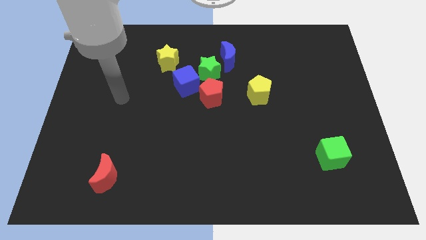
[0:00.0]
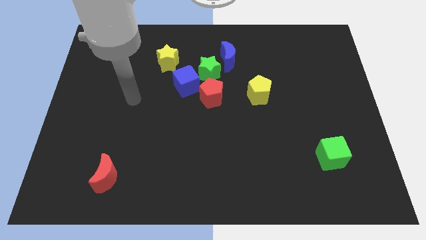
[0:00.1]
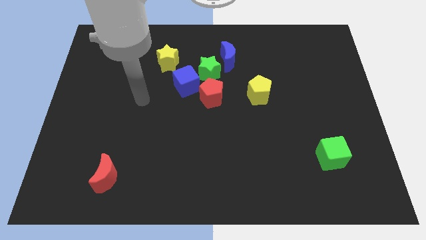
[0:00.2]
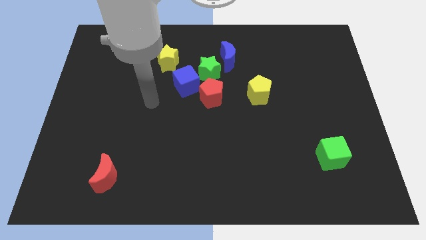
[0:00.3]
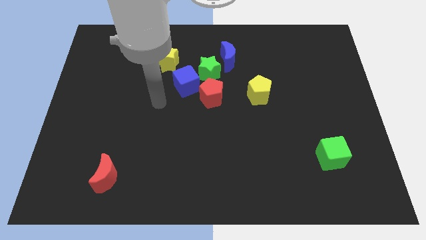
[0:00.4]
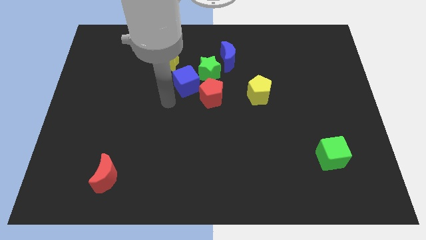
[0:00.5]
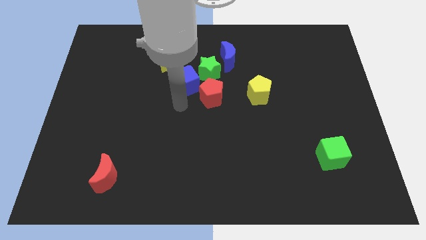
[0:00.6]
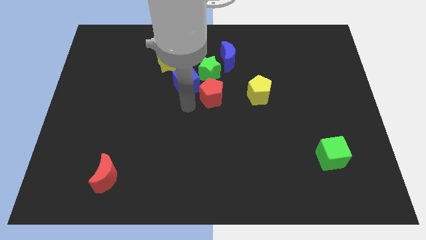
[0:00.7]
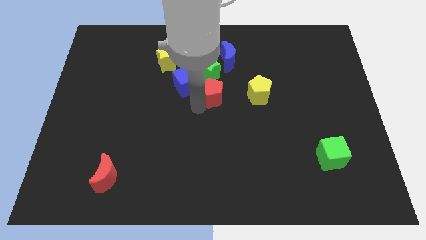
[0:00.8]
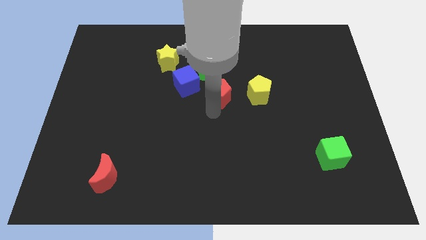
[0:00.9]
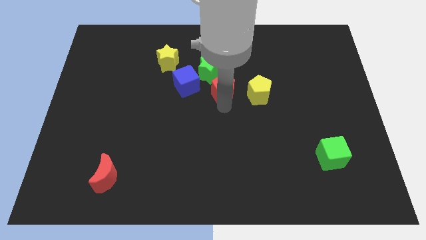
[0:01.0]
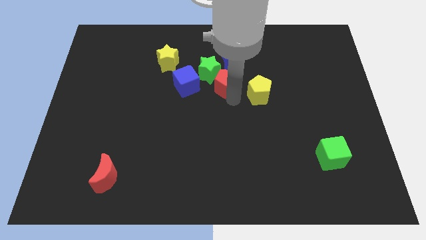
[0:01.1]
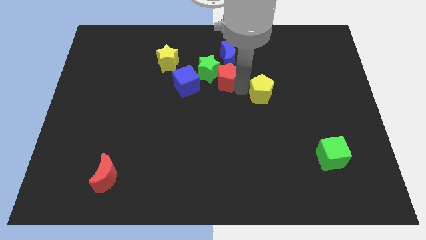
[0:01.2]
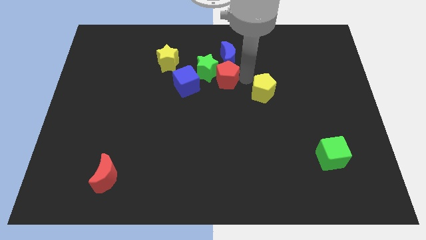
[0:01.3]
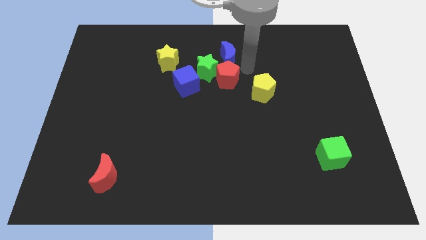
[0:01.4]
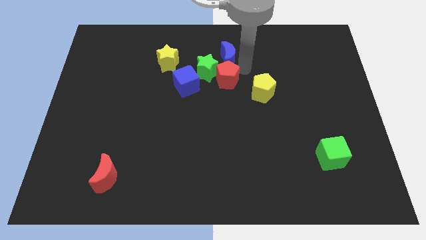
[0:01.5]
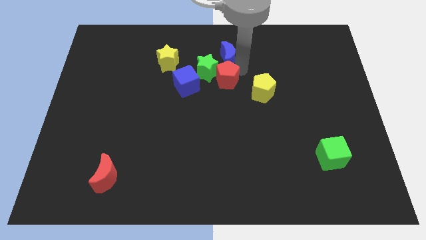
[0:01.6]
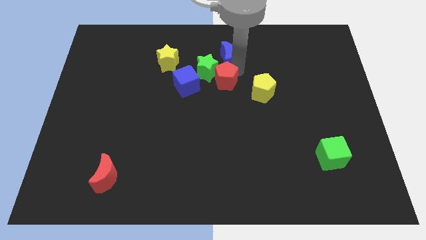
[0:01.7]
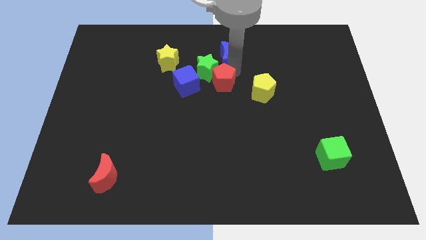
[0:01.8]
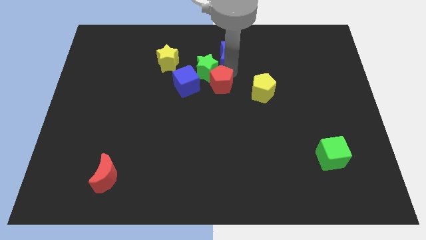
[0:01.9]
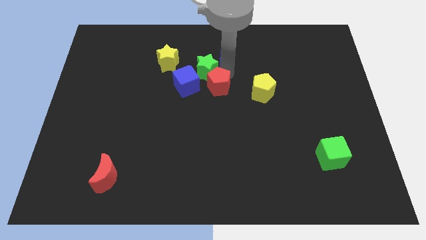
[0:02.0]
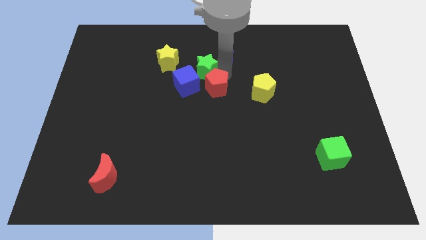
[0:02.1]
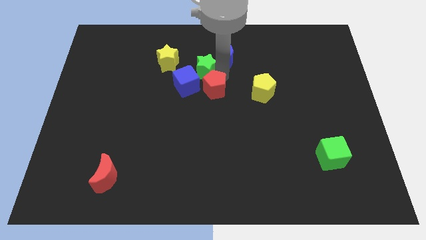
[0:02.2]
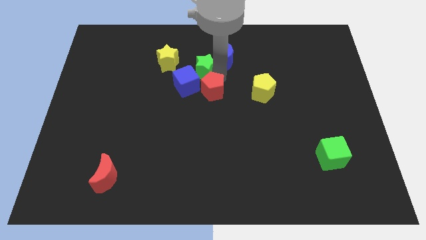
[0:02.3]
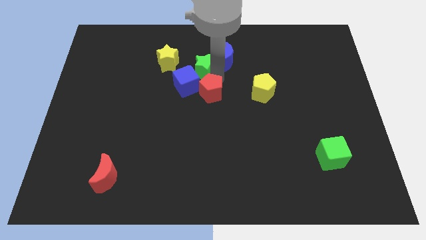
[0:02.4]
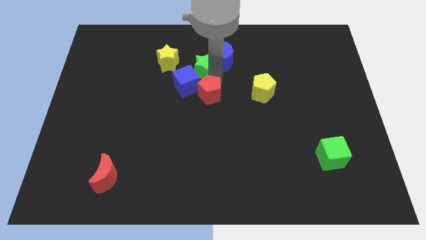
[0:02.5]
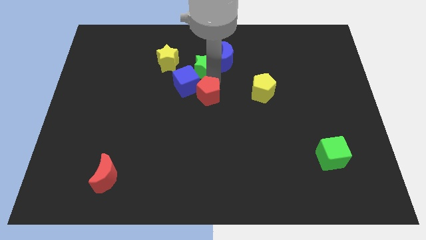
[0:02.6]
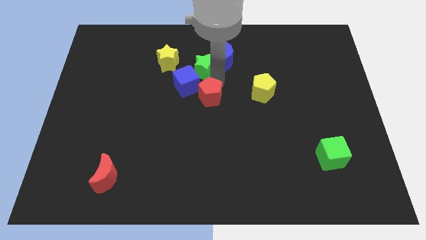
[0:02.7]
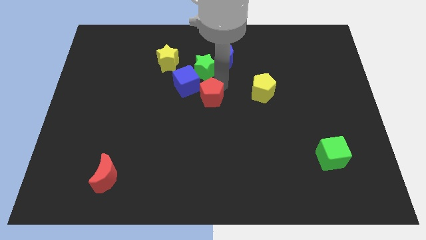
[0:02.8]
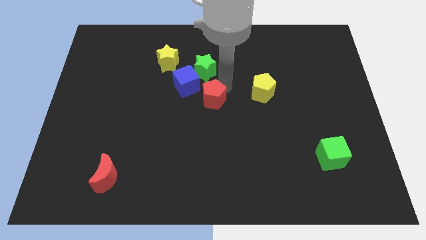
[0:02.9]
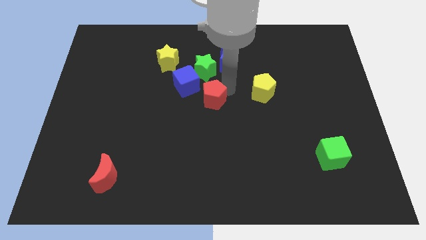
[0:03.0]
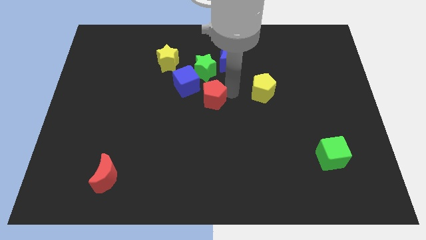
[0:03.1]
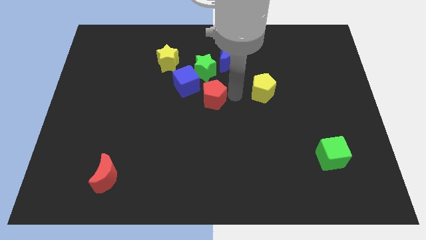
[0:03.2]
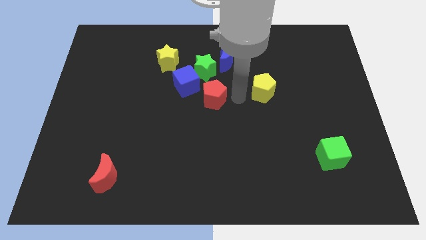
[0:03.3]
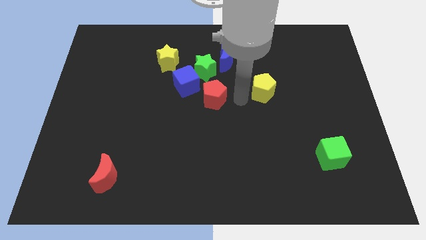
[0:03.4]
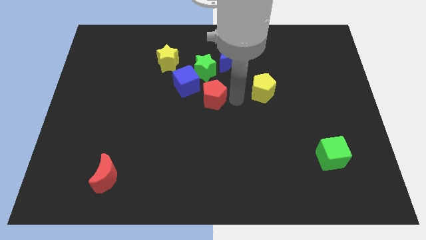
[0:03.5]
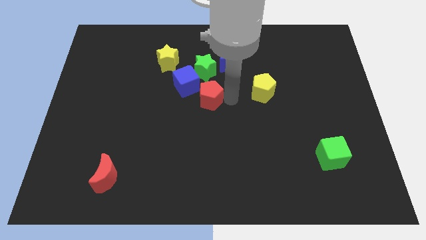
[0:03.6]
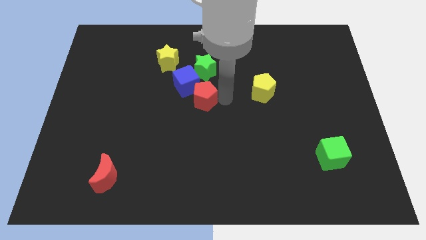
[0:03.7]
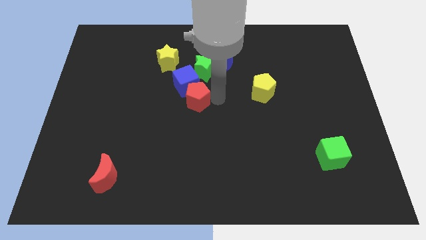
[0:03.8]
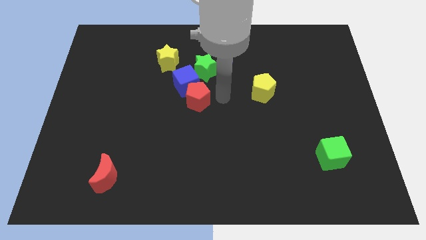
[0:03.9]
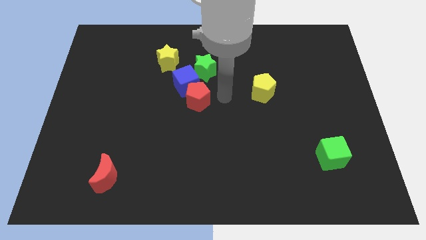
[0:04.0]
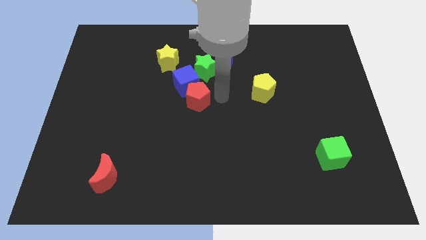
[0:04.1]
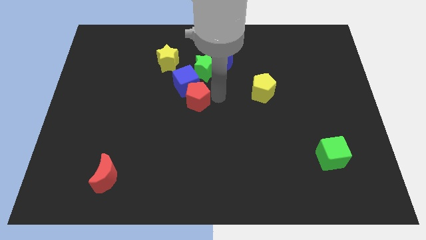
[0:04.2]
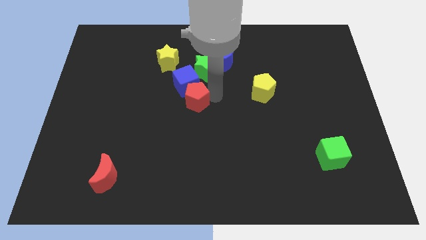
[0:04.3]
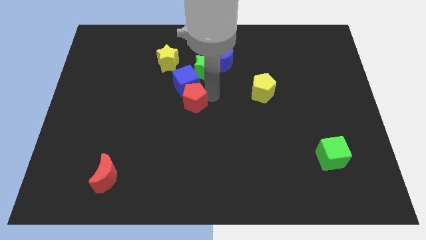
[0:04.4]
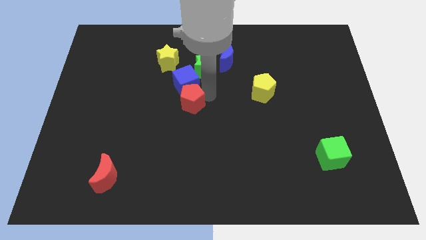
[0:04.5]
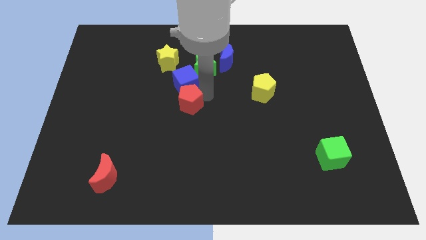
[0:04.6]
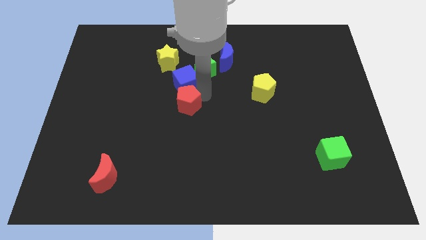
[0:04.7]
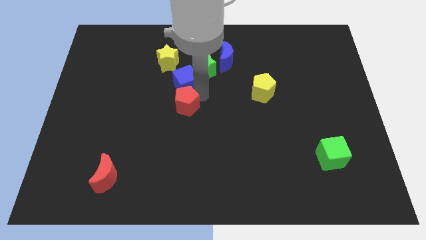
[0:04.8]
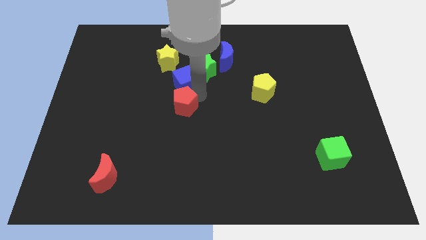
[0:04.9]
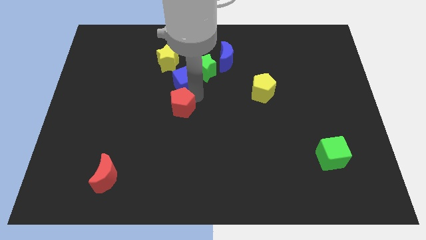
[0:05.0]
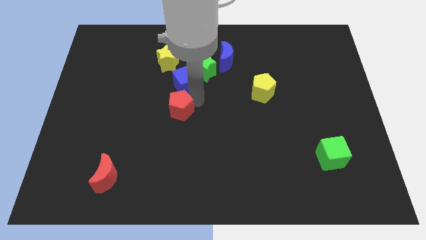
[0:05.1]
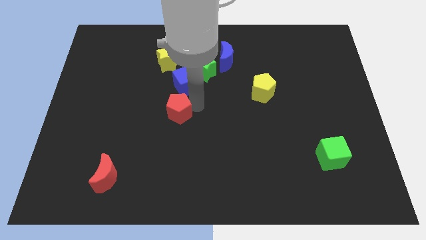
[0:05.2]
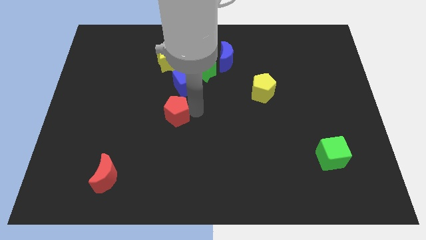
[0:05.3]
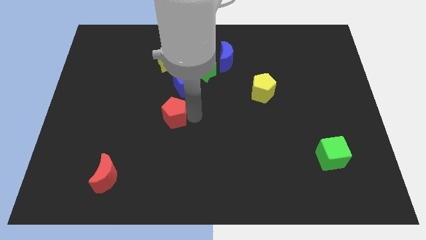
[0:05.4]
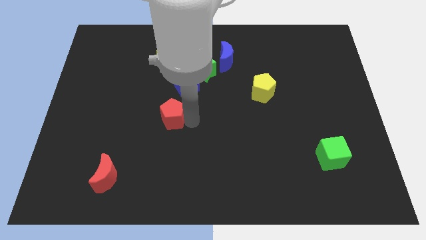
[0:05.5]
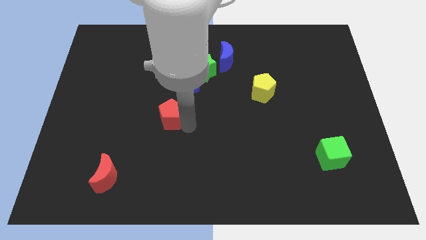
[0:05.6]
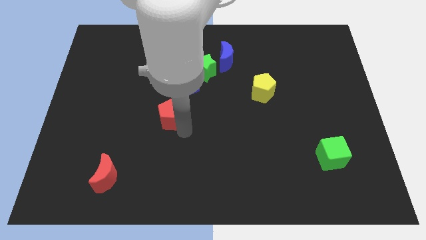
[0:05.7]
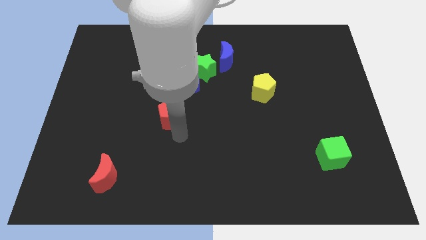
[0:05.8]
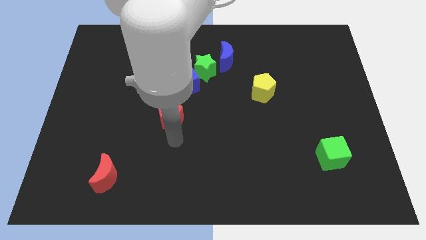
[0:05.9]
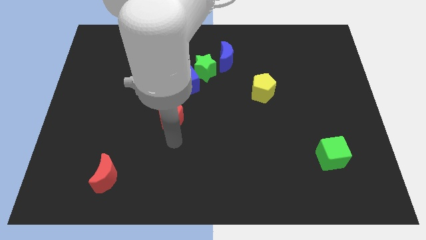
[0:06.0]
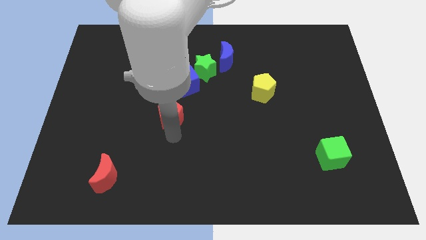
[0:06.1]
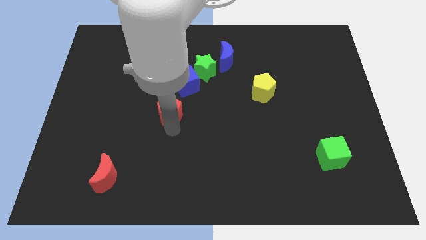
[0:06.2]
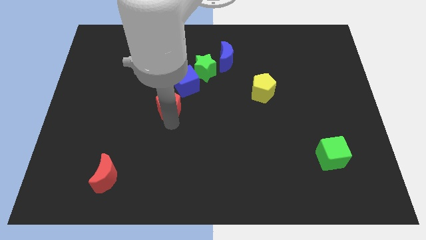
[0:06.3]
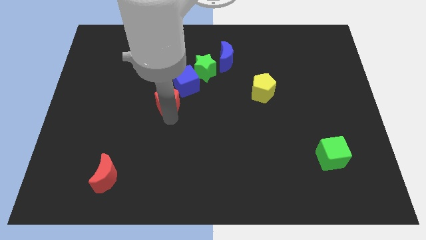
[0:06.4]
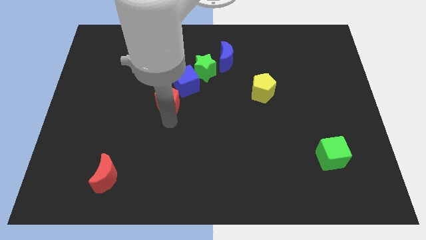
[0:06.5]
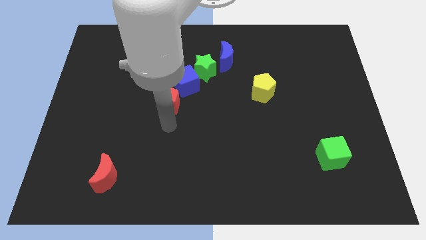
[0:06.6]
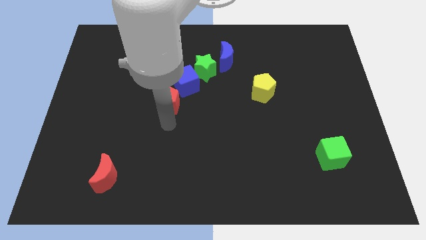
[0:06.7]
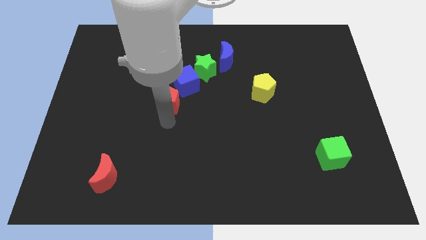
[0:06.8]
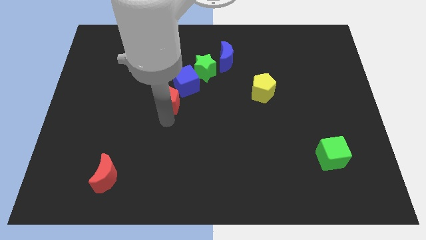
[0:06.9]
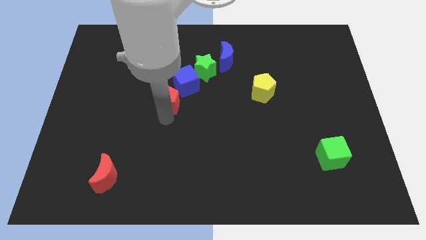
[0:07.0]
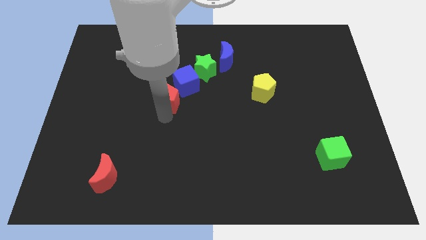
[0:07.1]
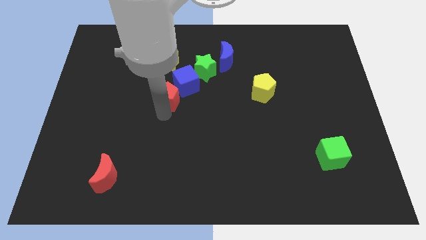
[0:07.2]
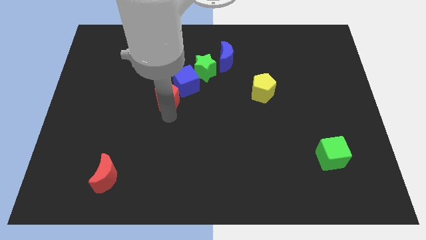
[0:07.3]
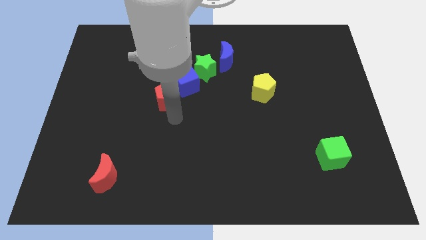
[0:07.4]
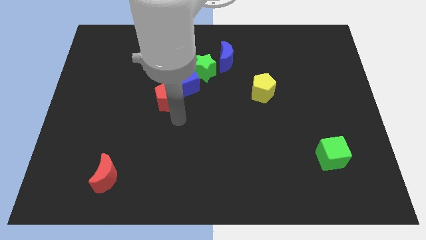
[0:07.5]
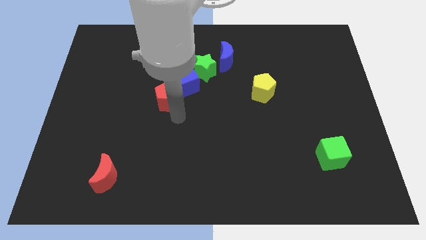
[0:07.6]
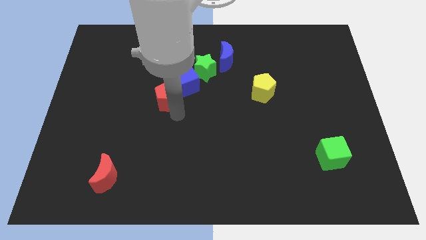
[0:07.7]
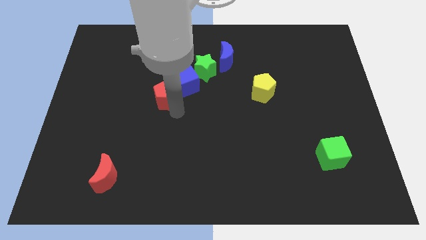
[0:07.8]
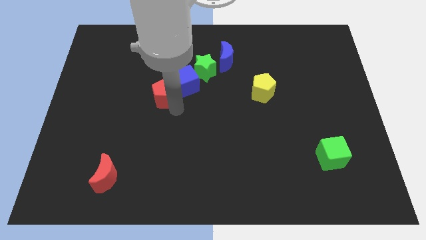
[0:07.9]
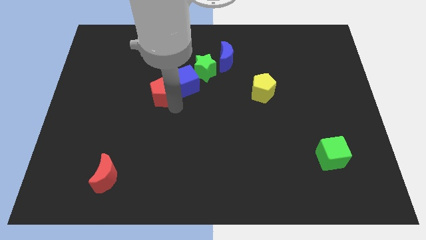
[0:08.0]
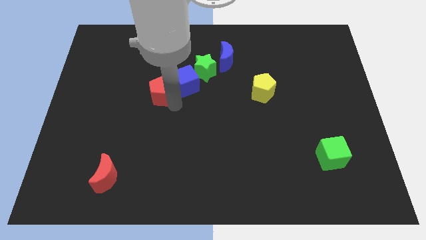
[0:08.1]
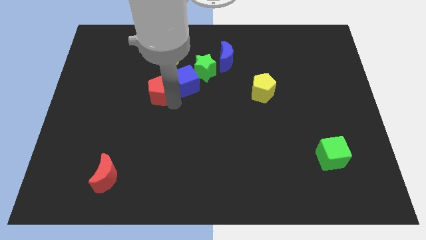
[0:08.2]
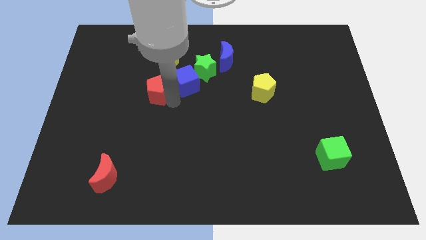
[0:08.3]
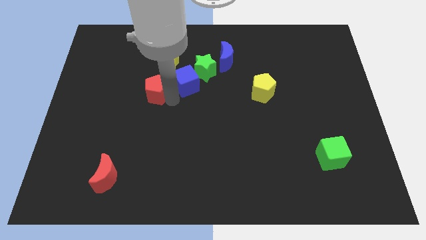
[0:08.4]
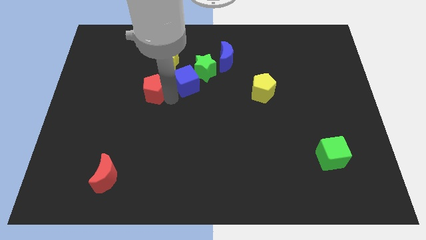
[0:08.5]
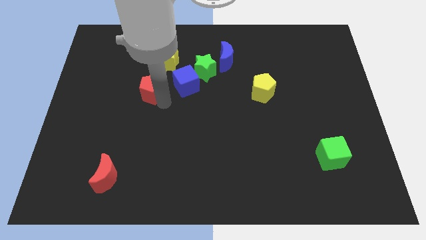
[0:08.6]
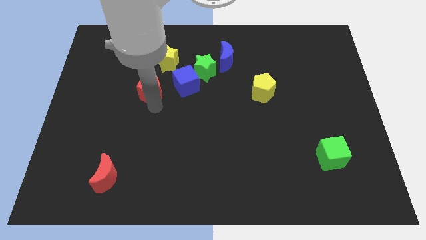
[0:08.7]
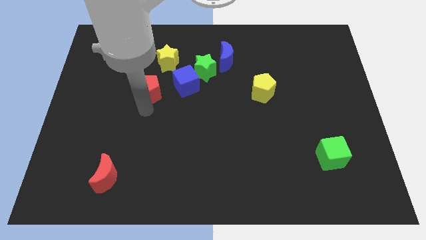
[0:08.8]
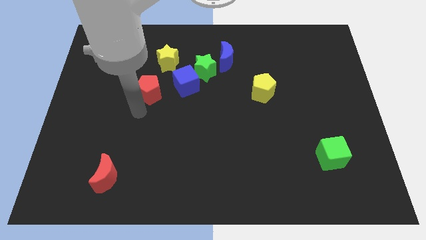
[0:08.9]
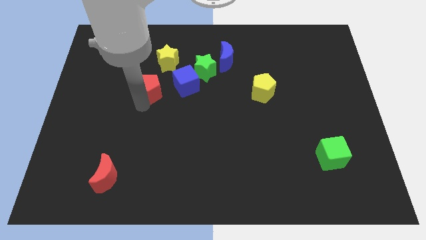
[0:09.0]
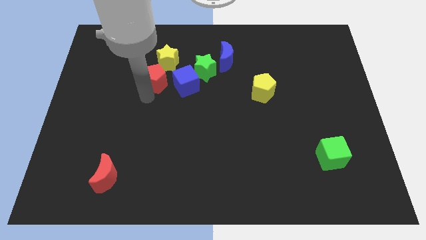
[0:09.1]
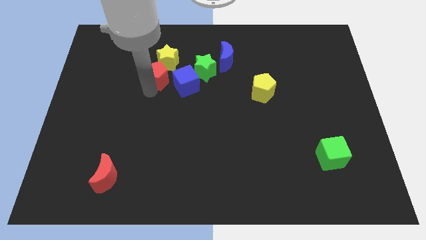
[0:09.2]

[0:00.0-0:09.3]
move the red pentagon close to the yellow star
